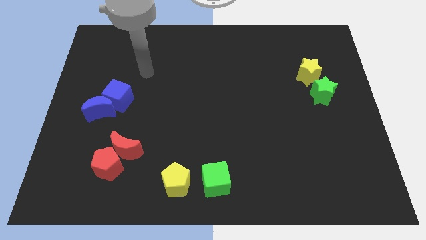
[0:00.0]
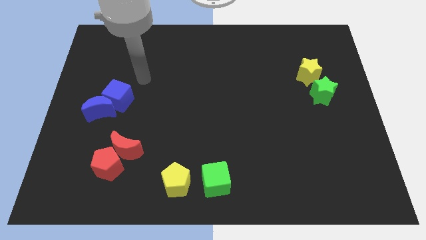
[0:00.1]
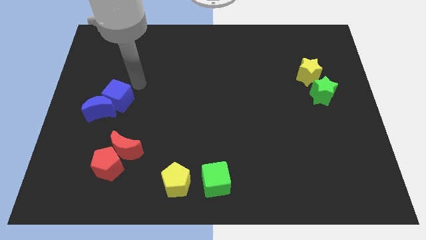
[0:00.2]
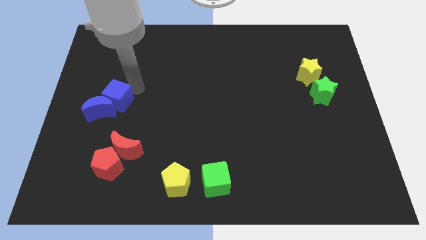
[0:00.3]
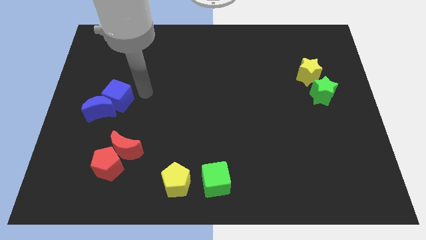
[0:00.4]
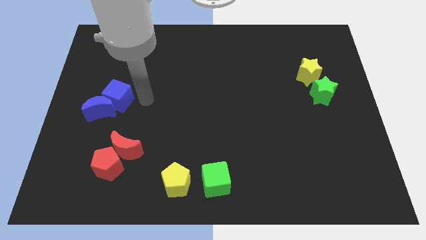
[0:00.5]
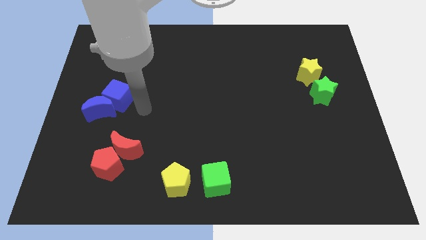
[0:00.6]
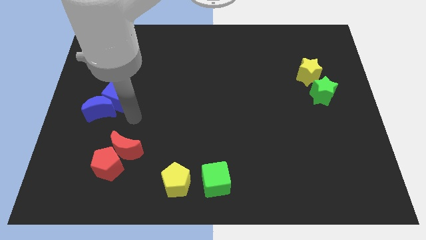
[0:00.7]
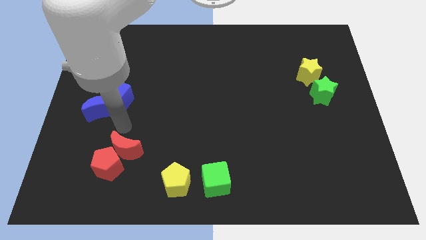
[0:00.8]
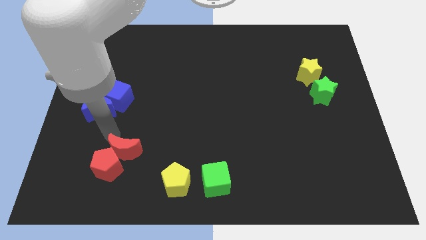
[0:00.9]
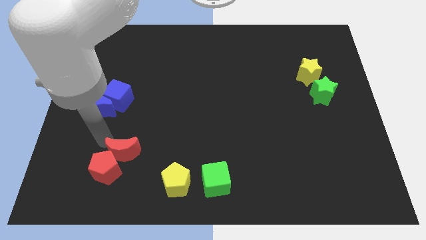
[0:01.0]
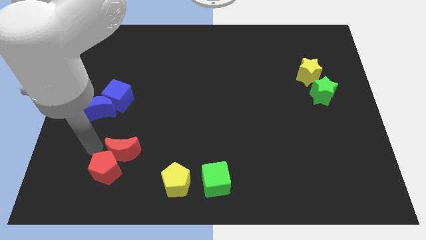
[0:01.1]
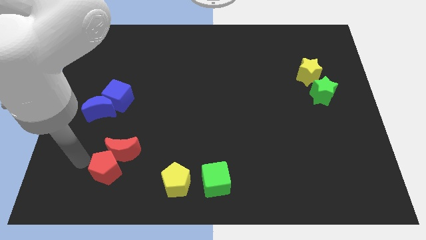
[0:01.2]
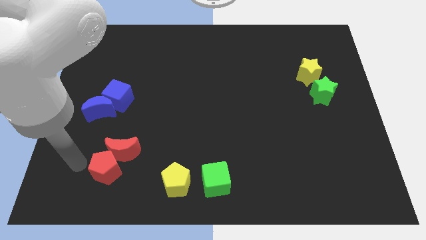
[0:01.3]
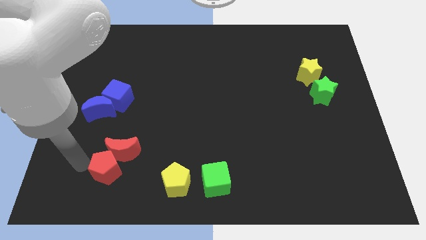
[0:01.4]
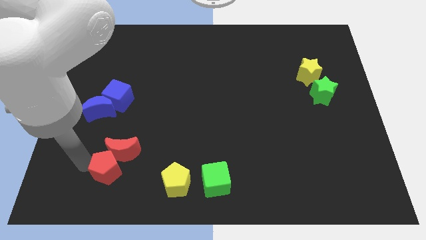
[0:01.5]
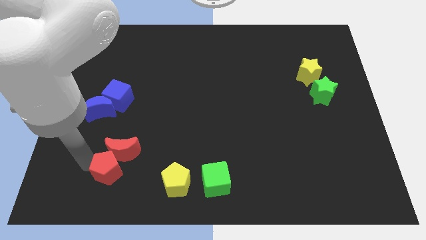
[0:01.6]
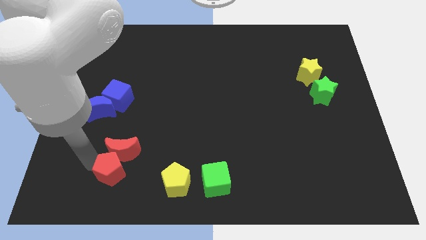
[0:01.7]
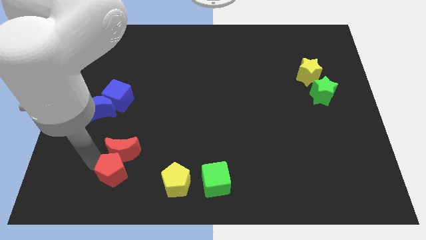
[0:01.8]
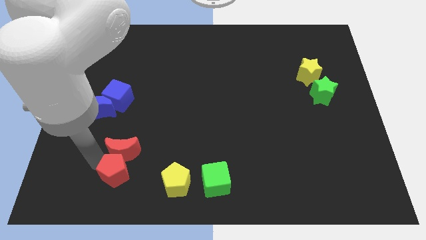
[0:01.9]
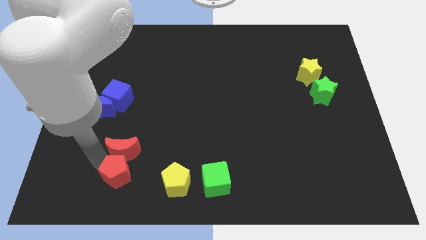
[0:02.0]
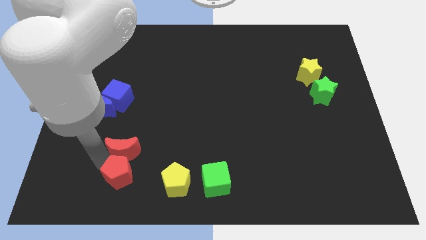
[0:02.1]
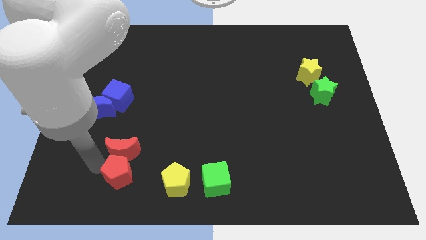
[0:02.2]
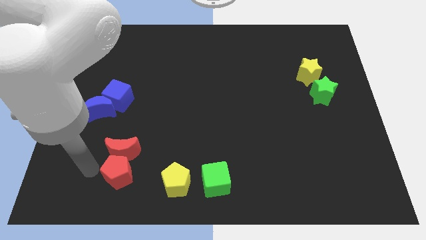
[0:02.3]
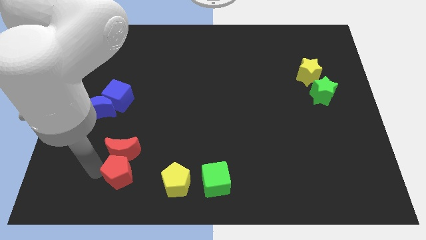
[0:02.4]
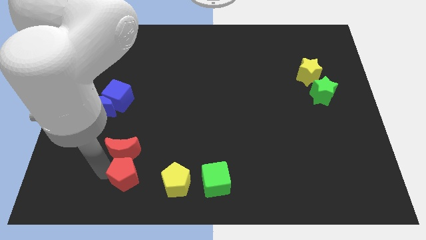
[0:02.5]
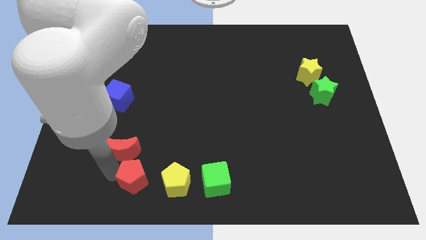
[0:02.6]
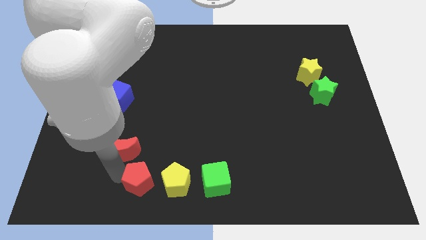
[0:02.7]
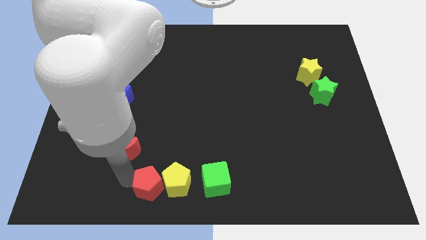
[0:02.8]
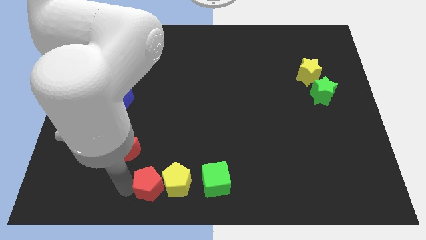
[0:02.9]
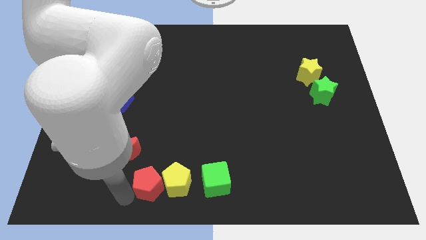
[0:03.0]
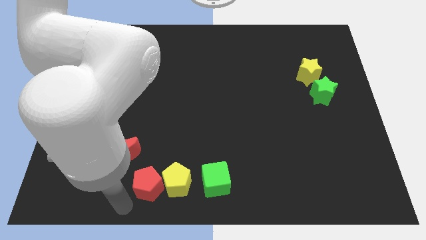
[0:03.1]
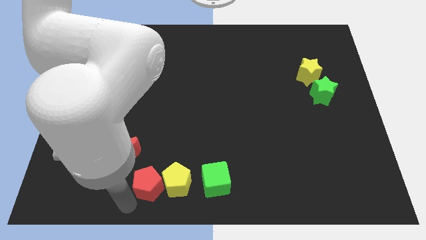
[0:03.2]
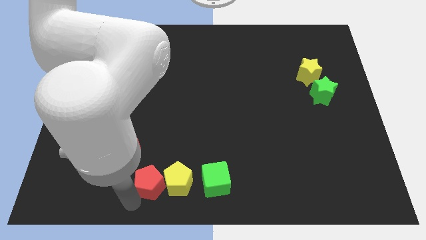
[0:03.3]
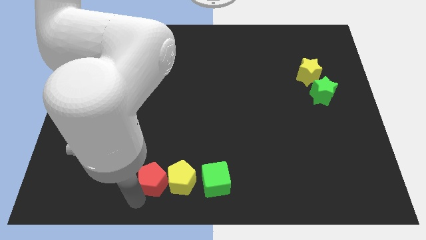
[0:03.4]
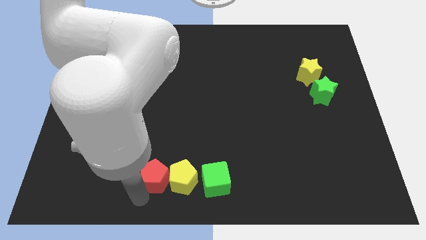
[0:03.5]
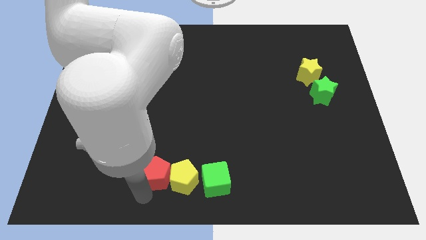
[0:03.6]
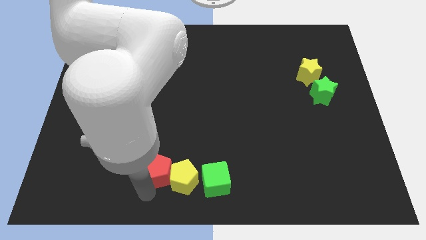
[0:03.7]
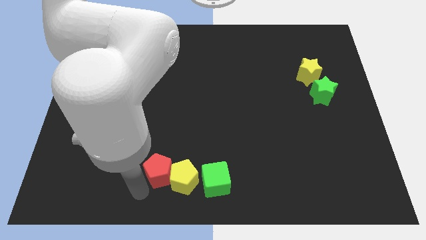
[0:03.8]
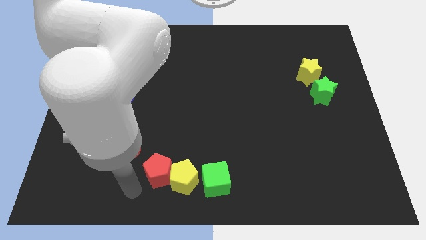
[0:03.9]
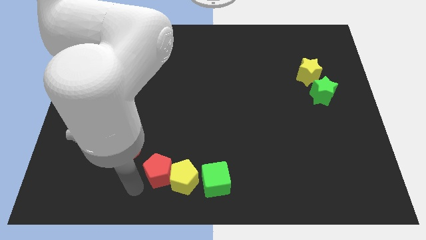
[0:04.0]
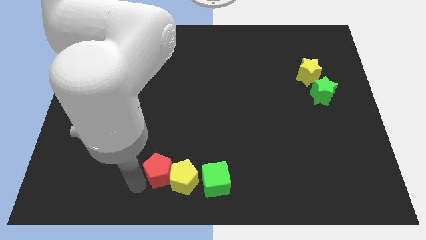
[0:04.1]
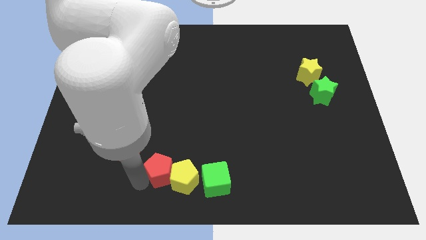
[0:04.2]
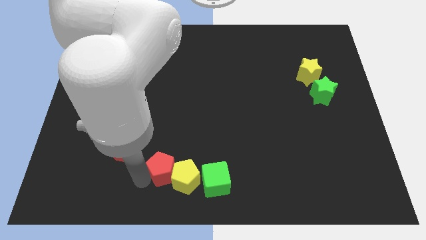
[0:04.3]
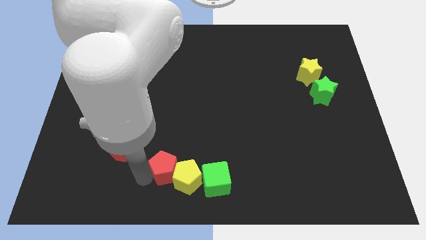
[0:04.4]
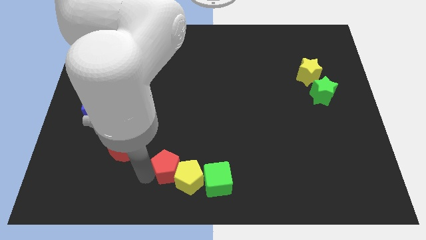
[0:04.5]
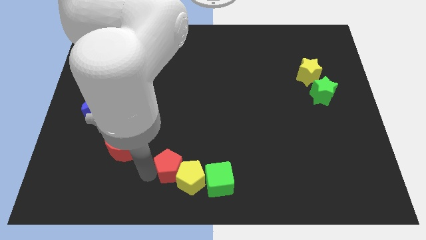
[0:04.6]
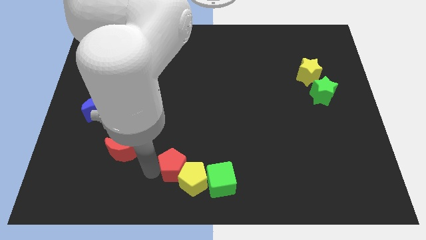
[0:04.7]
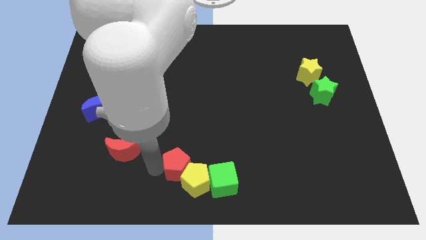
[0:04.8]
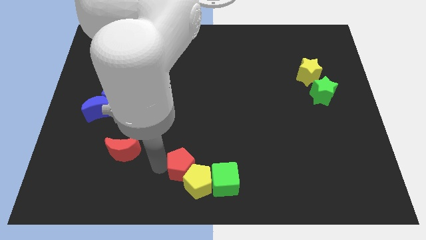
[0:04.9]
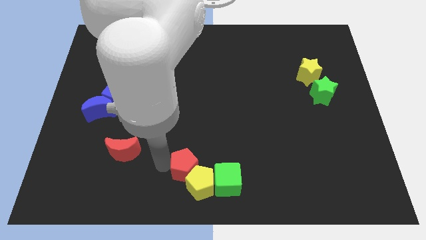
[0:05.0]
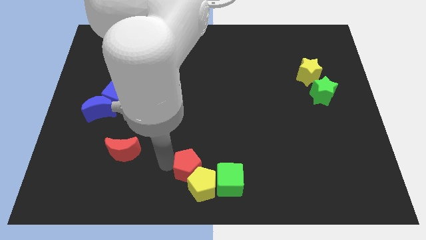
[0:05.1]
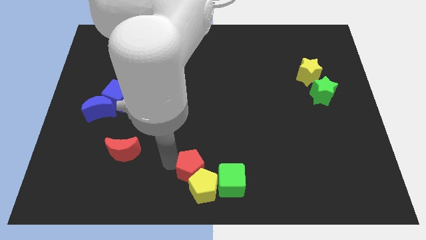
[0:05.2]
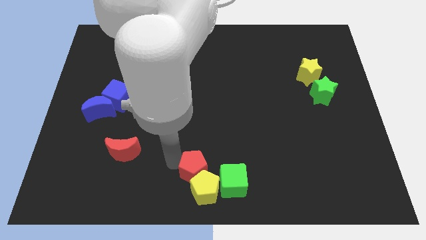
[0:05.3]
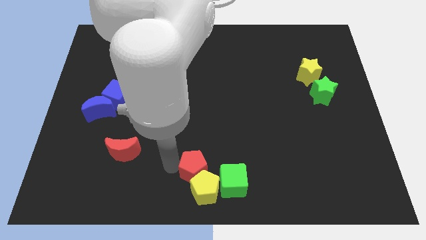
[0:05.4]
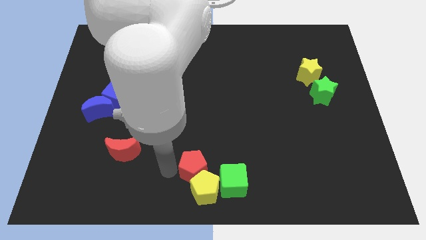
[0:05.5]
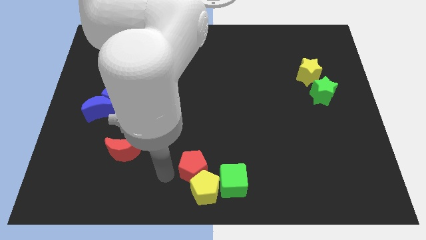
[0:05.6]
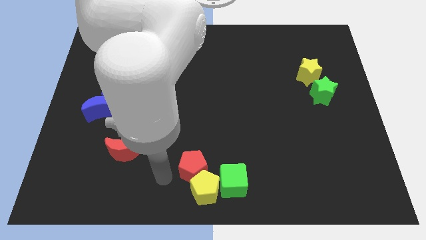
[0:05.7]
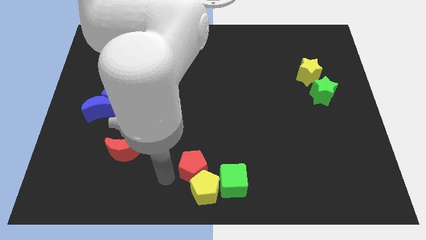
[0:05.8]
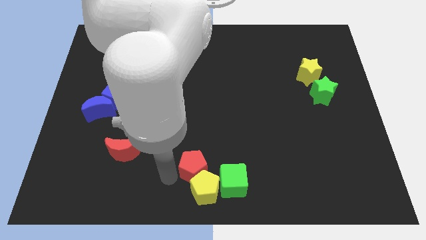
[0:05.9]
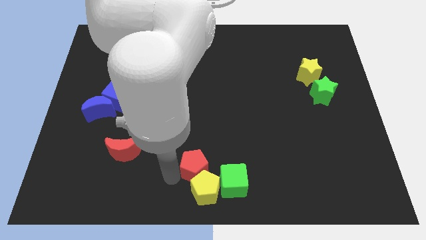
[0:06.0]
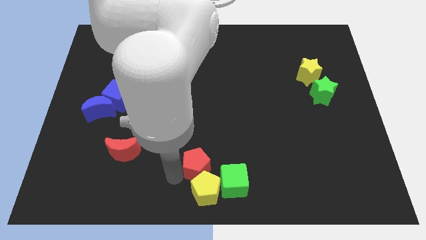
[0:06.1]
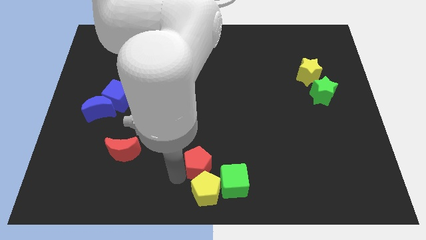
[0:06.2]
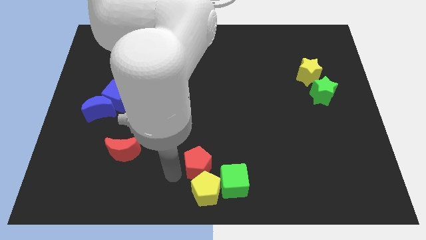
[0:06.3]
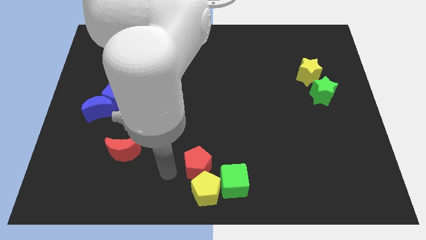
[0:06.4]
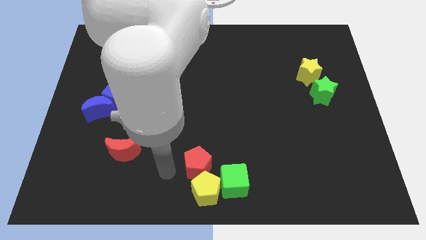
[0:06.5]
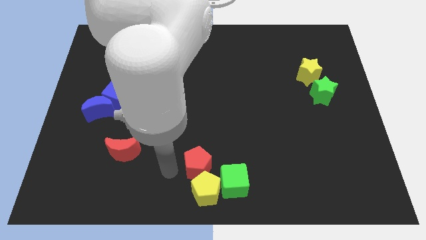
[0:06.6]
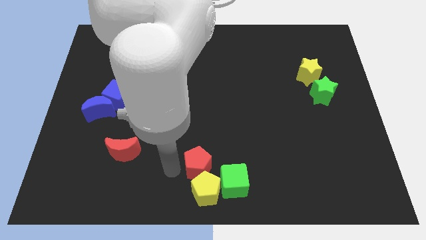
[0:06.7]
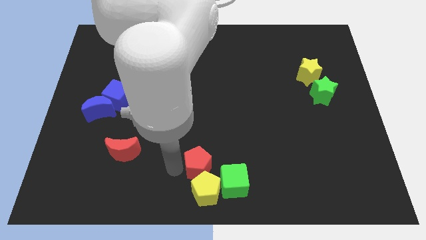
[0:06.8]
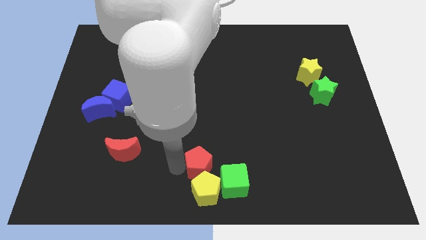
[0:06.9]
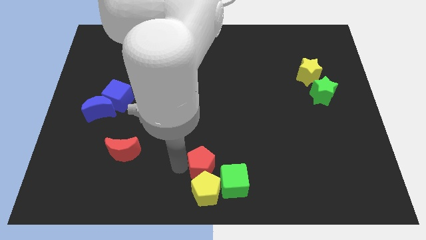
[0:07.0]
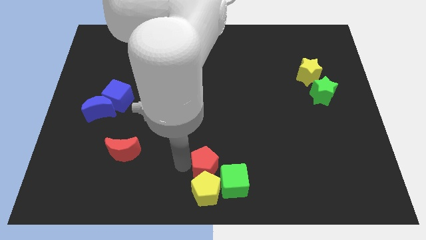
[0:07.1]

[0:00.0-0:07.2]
slide the red pentagon right

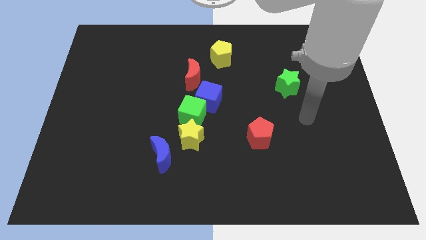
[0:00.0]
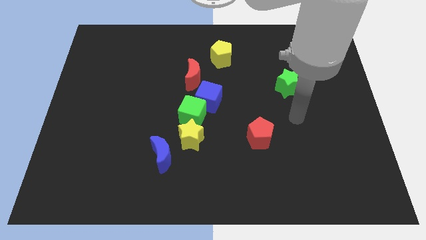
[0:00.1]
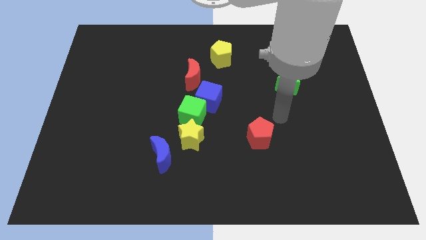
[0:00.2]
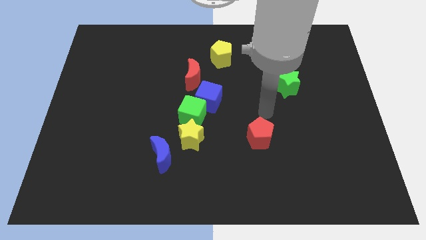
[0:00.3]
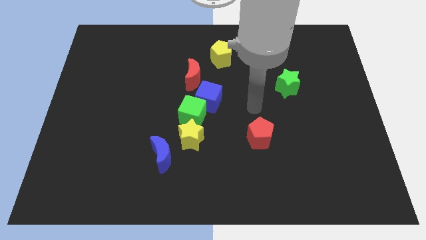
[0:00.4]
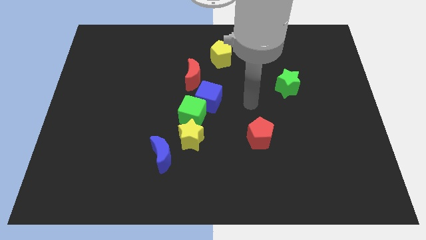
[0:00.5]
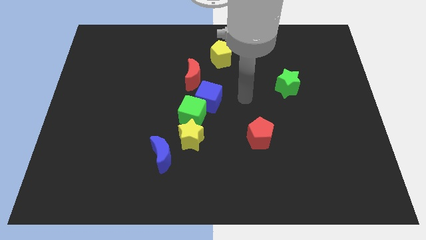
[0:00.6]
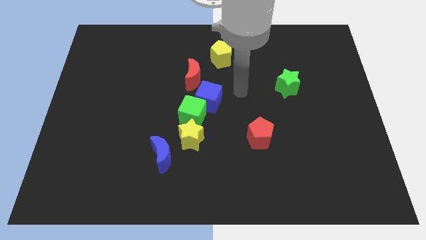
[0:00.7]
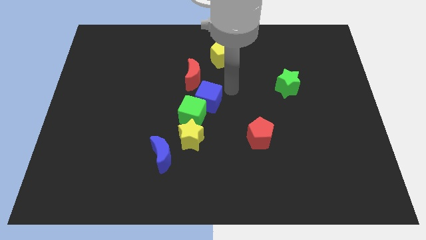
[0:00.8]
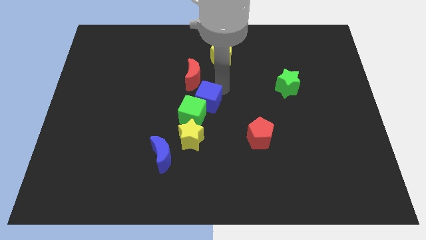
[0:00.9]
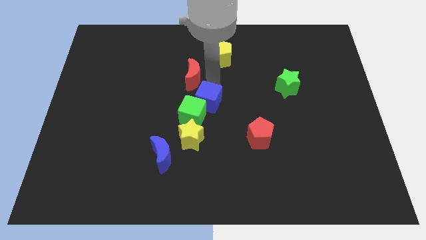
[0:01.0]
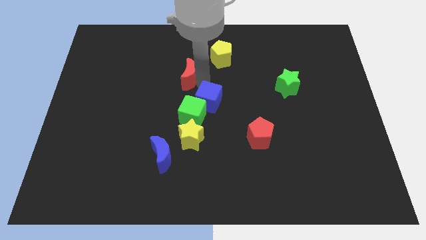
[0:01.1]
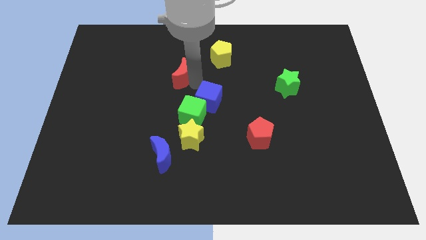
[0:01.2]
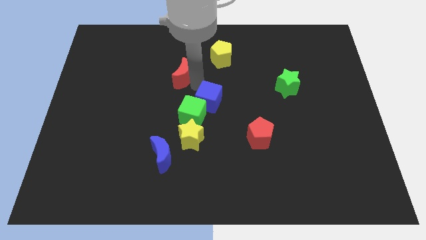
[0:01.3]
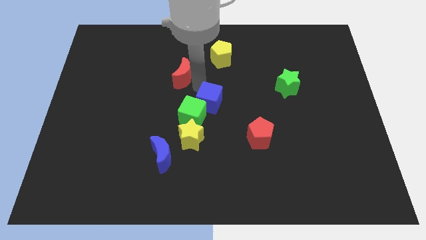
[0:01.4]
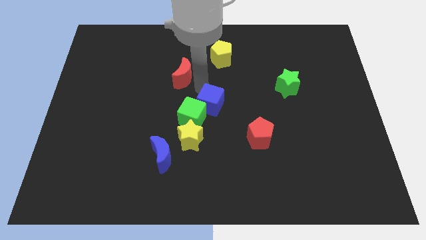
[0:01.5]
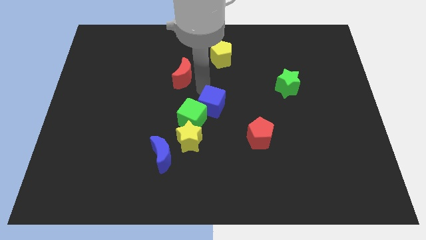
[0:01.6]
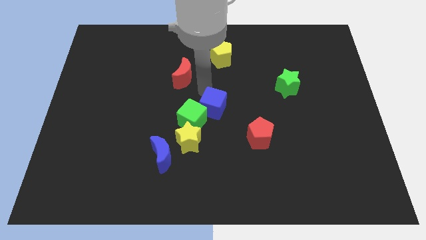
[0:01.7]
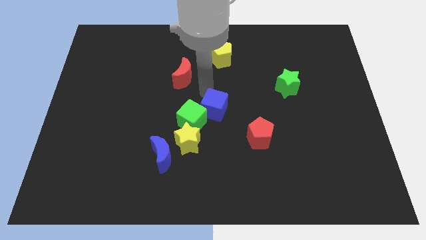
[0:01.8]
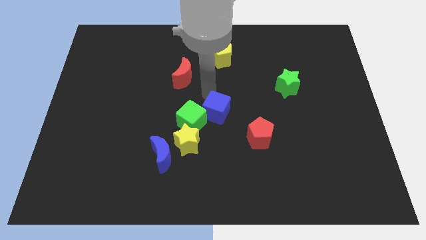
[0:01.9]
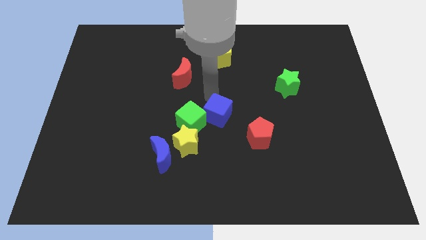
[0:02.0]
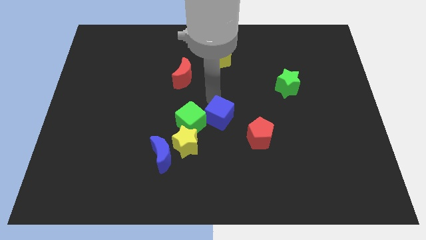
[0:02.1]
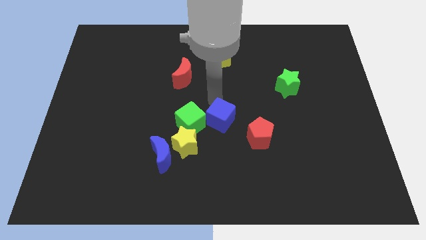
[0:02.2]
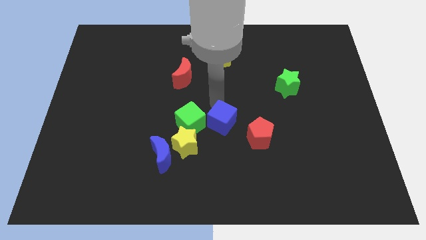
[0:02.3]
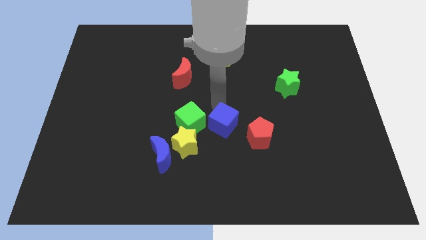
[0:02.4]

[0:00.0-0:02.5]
slide the blue cube downwards and right somewhat
